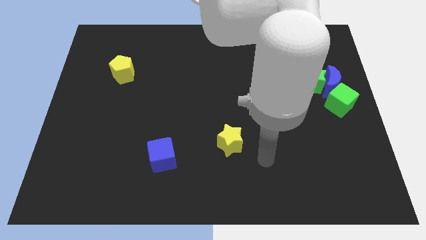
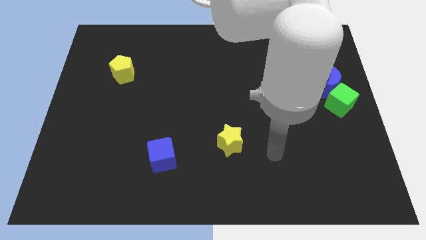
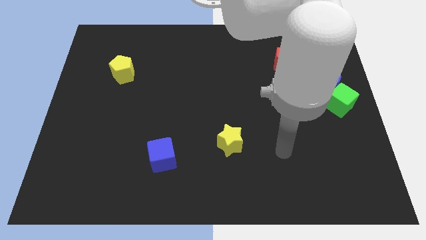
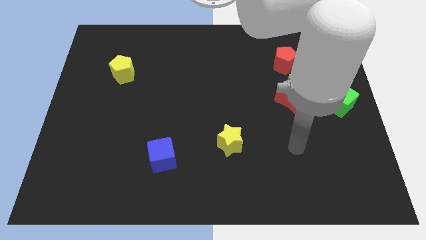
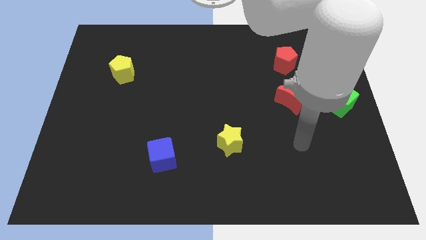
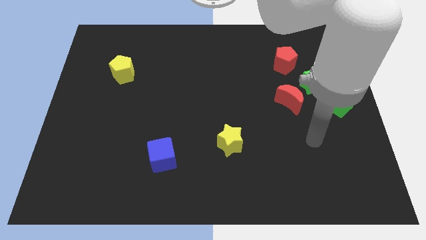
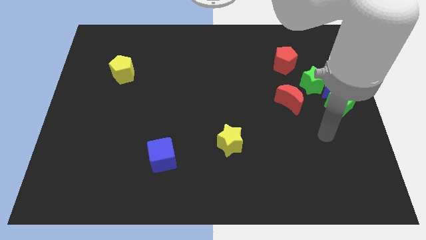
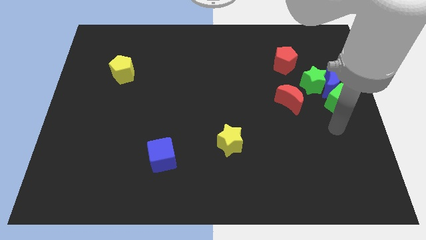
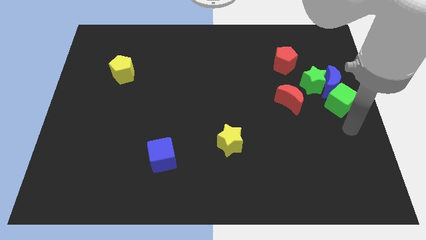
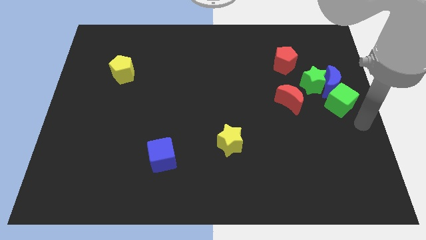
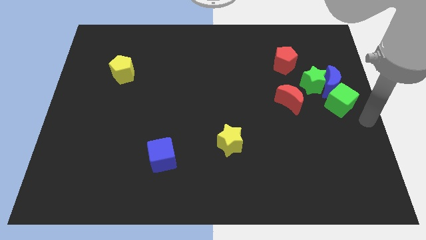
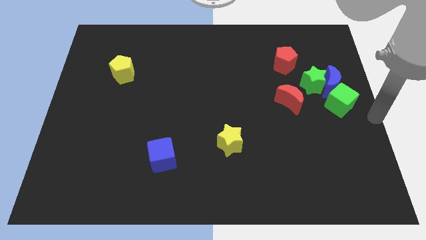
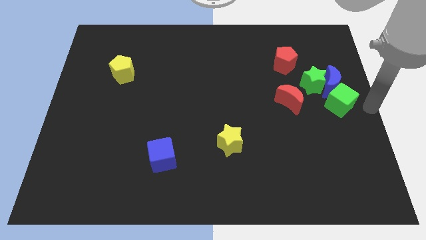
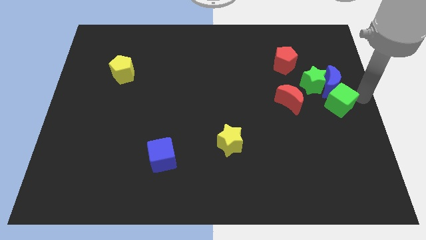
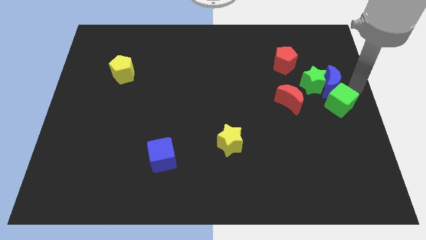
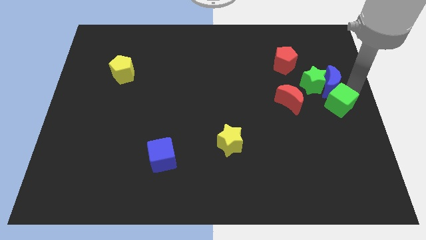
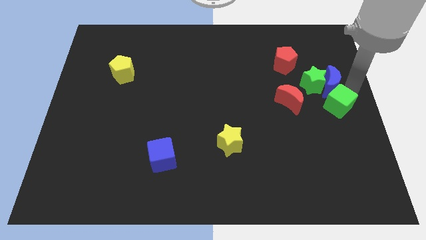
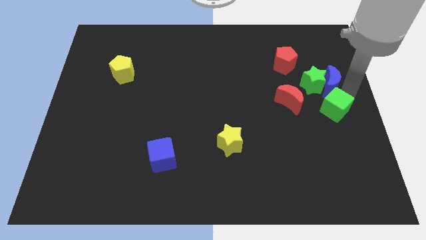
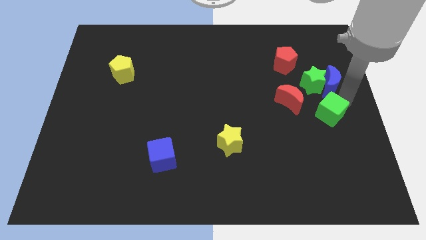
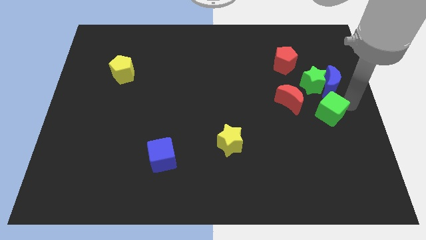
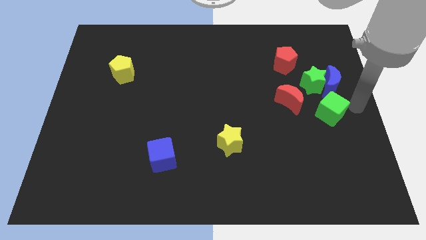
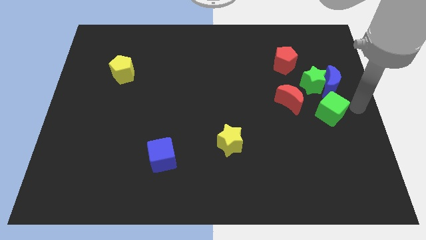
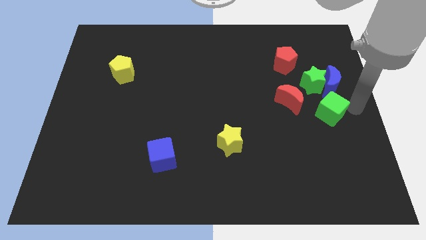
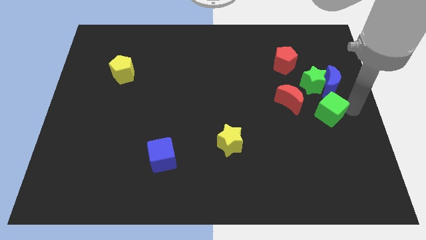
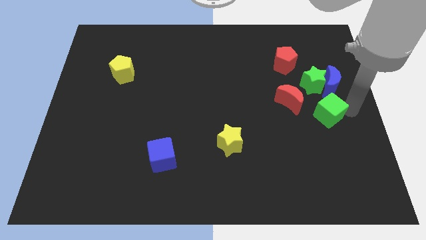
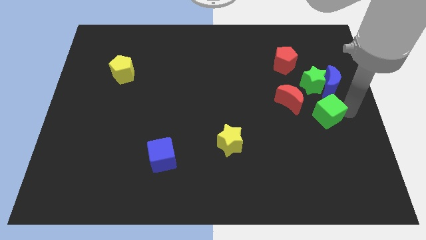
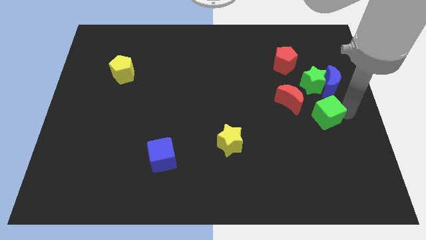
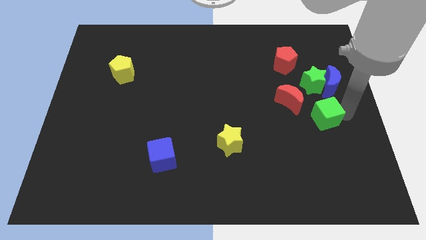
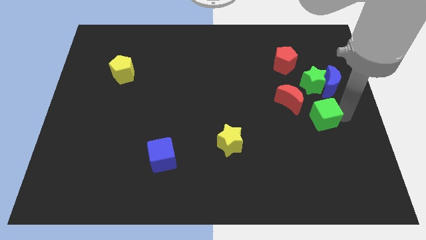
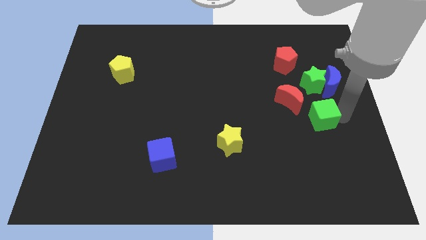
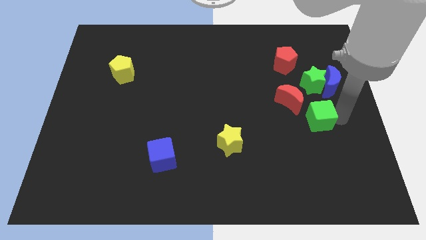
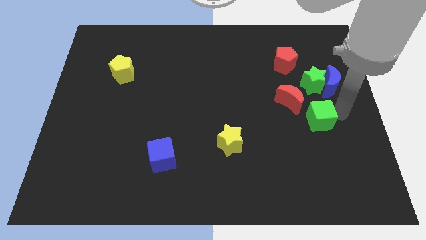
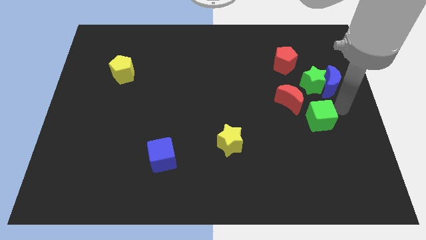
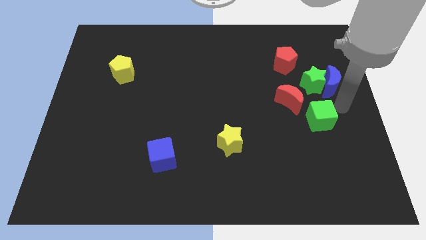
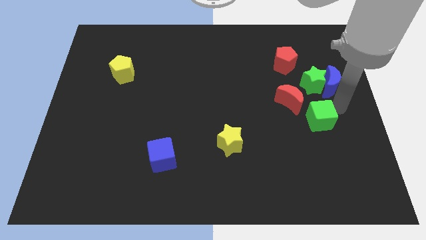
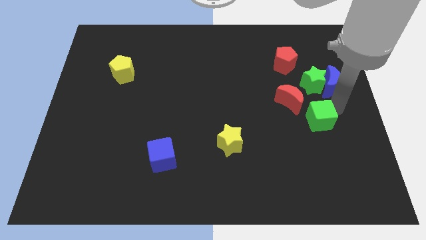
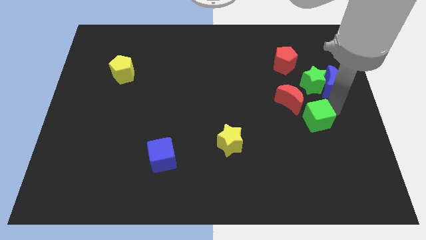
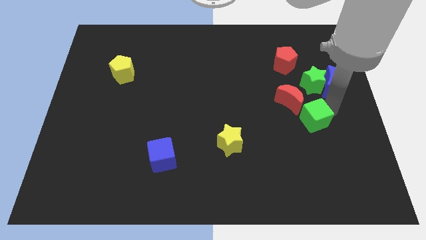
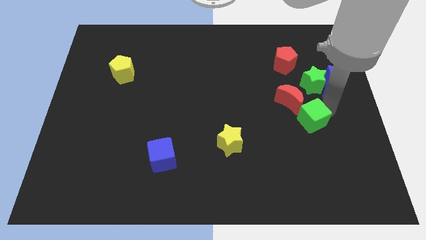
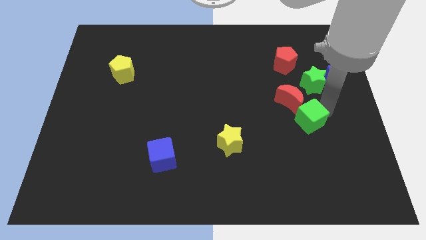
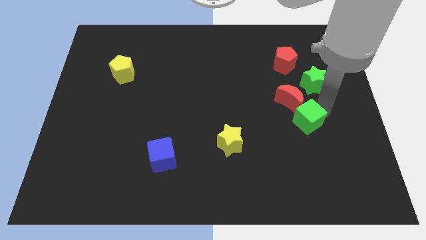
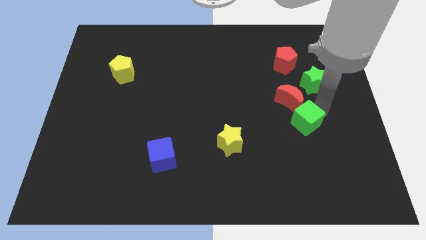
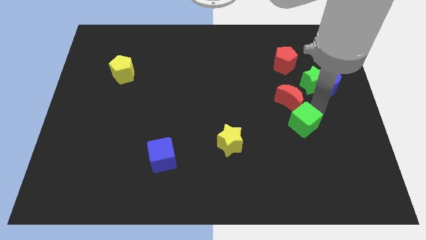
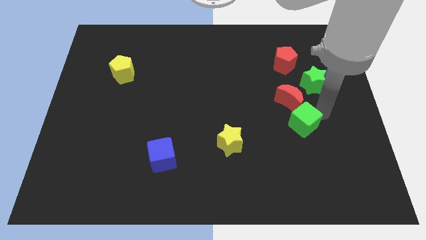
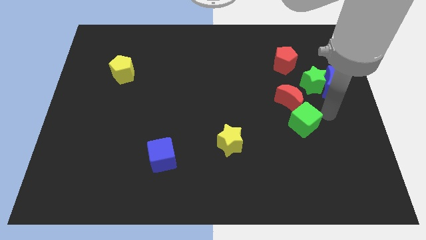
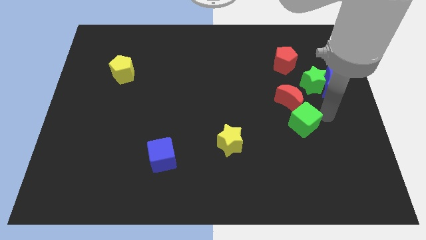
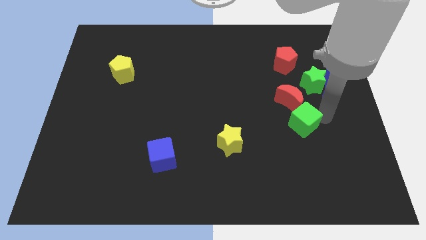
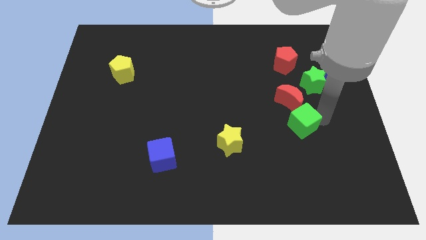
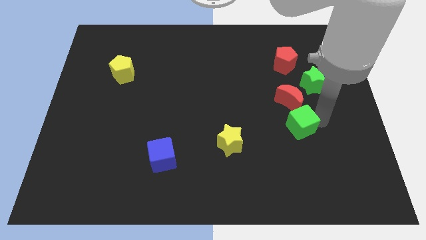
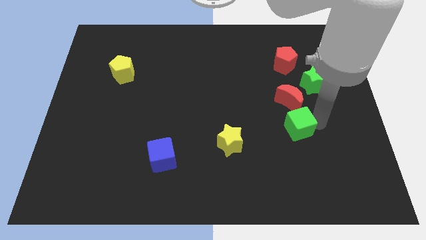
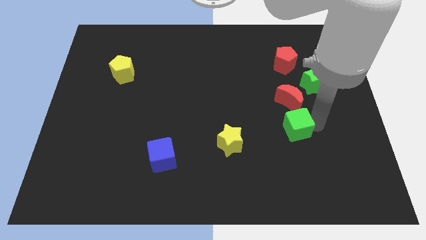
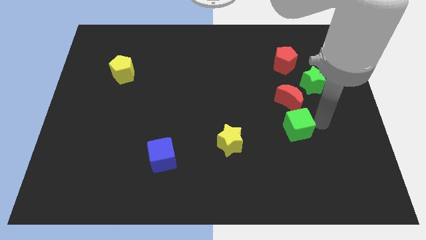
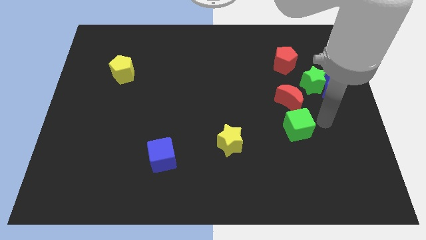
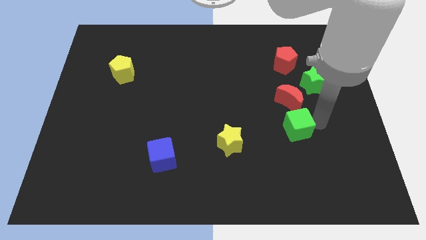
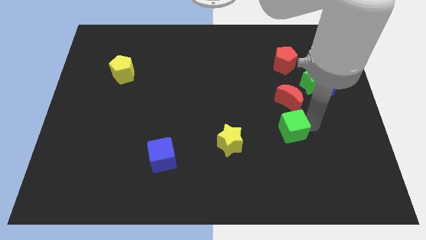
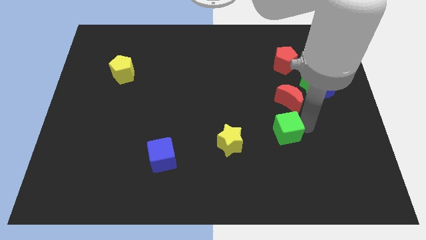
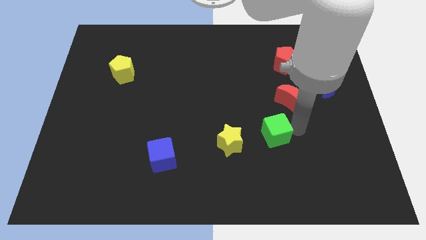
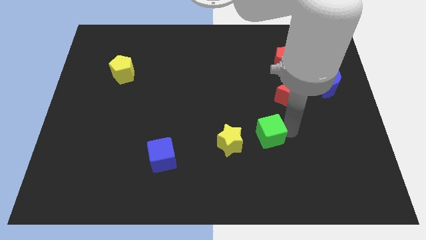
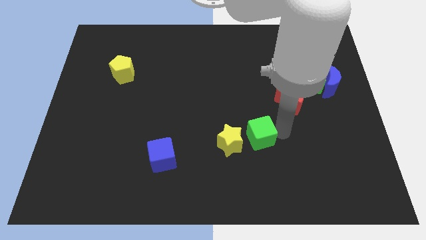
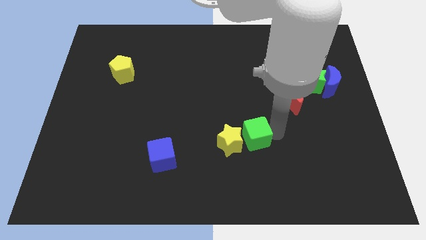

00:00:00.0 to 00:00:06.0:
put the green cube close to the yellow star

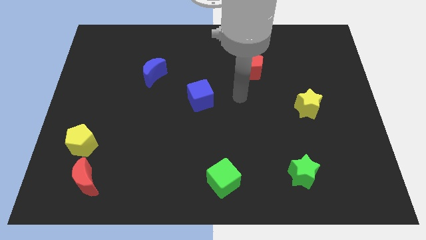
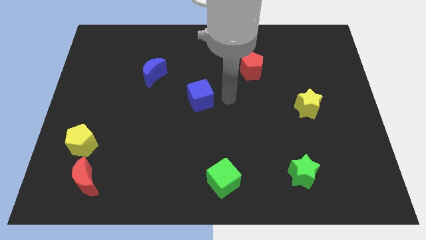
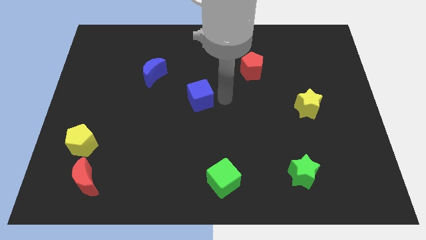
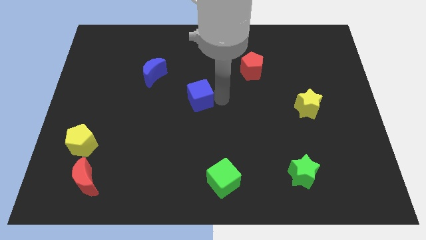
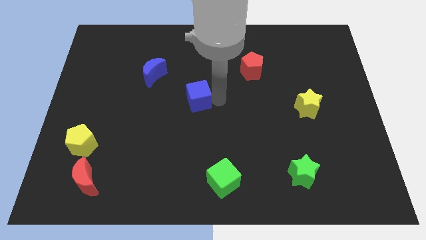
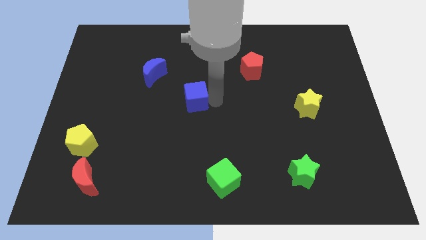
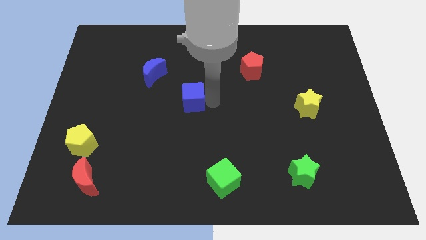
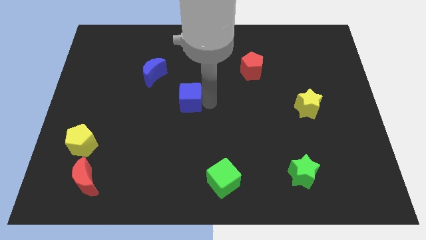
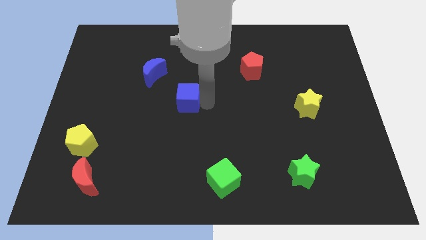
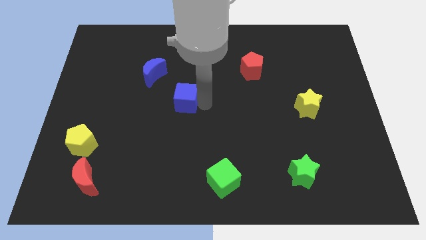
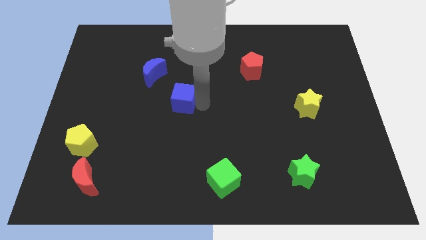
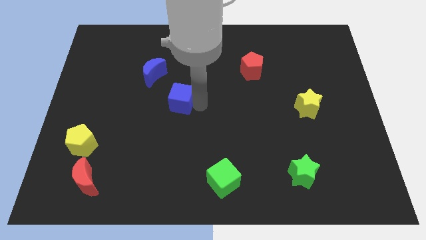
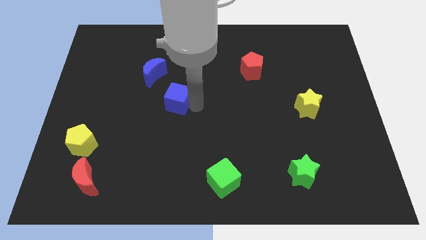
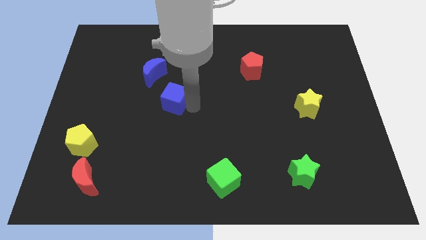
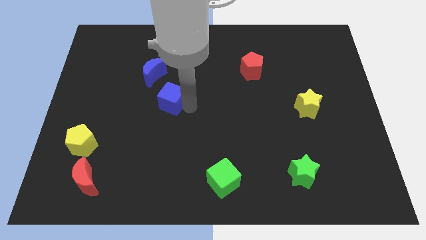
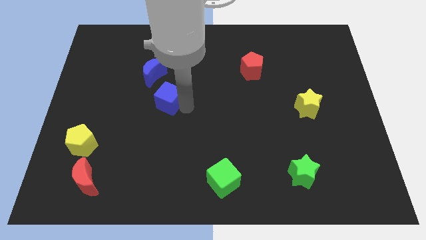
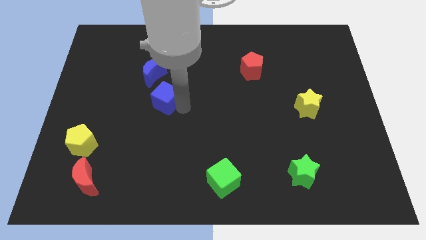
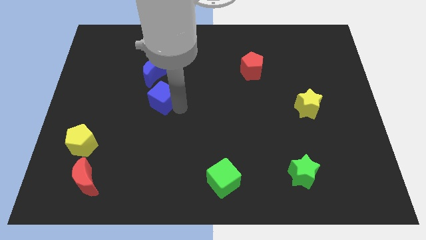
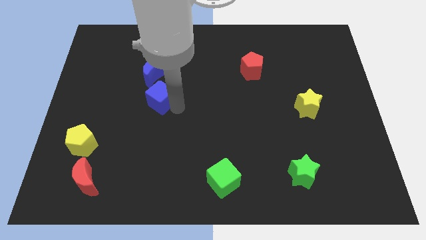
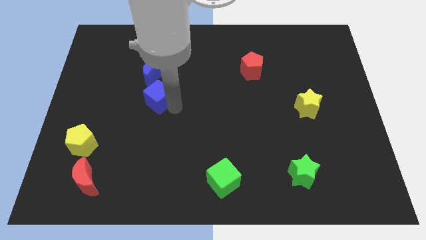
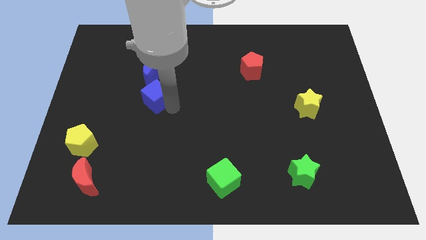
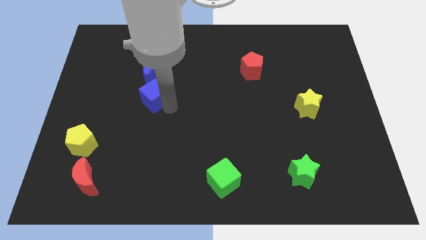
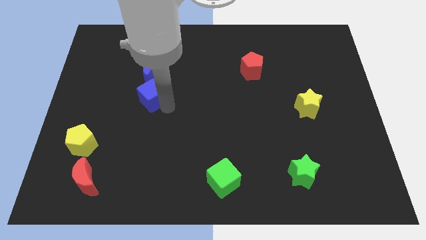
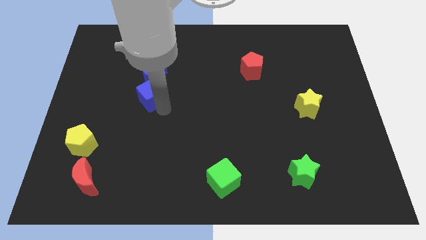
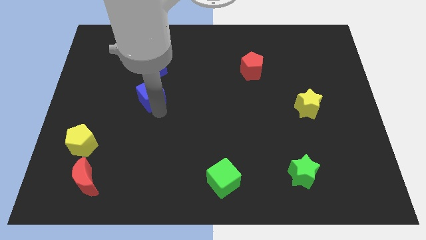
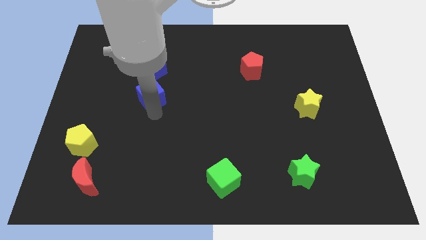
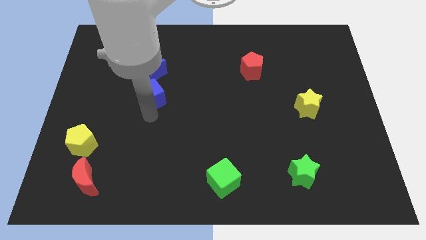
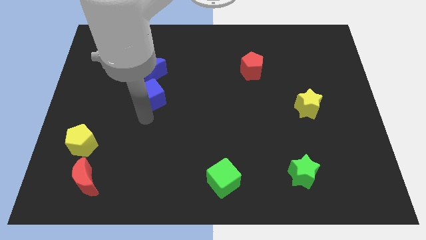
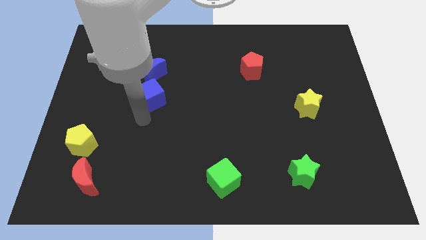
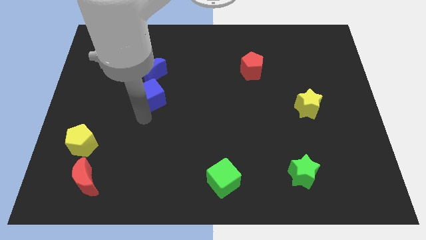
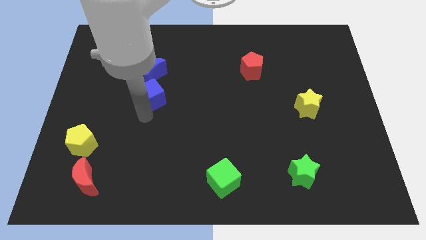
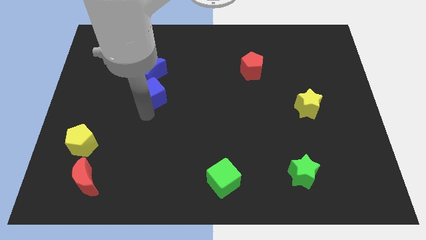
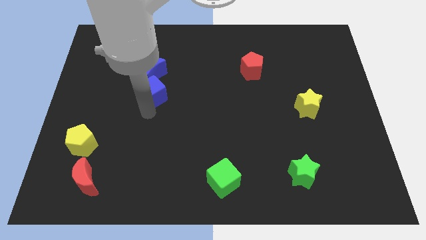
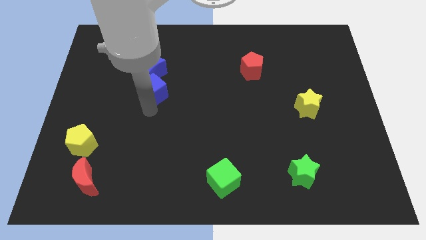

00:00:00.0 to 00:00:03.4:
move the blue cube close to the blue moon
